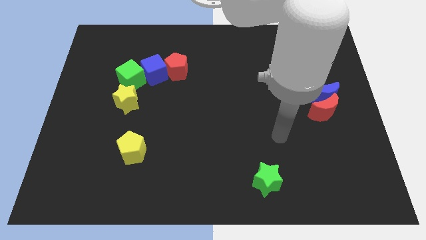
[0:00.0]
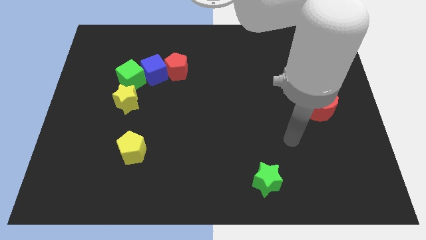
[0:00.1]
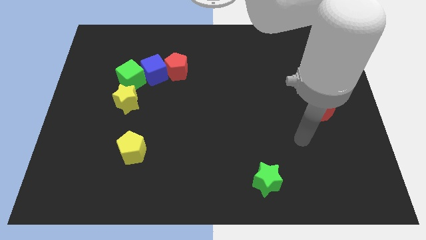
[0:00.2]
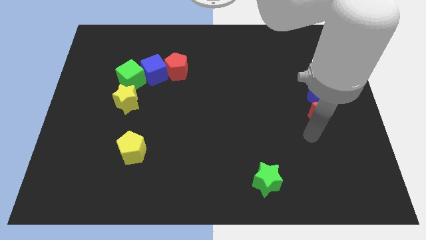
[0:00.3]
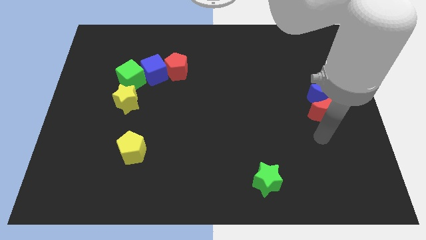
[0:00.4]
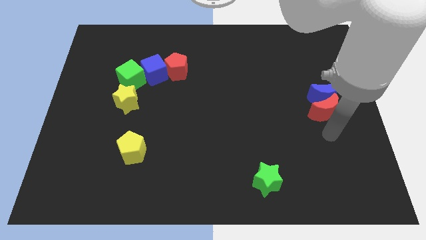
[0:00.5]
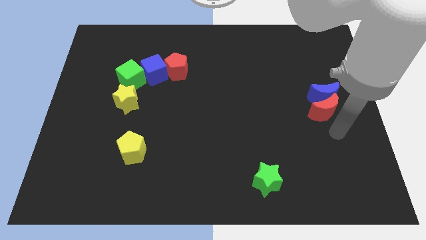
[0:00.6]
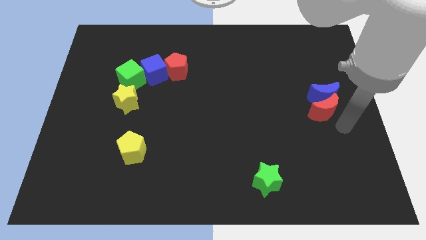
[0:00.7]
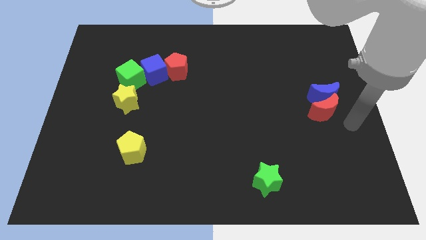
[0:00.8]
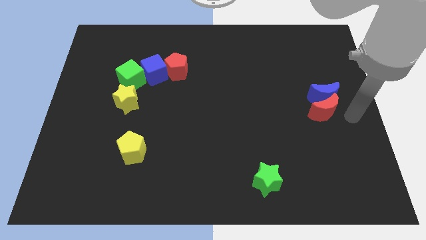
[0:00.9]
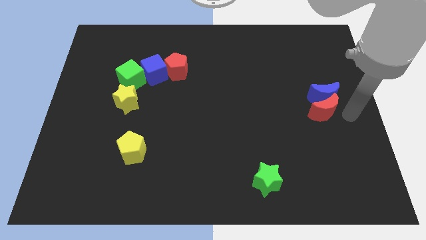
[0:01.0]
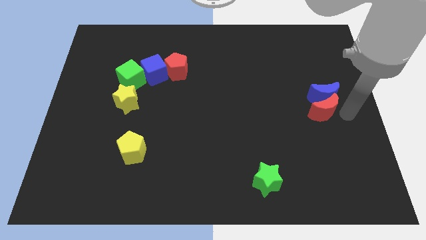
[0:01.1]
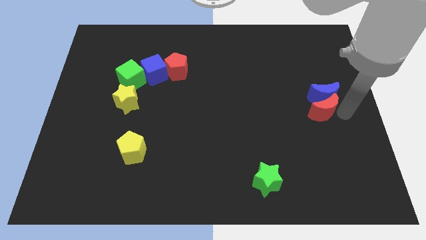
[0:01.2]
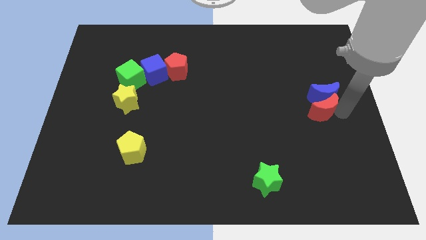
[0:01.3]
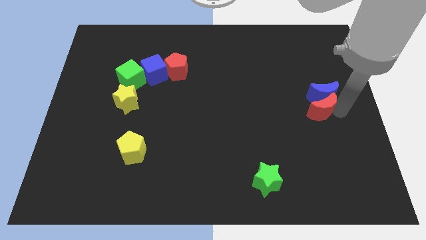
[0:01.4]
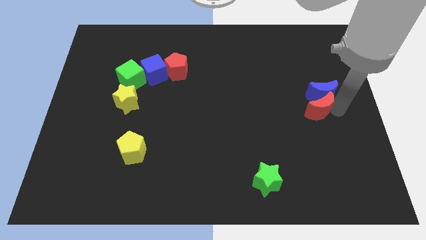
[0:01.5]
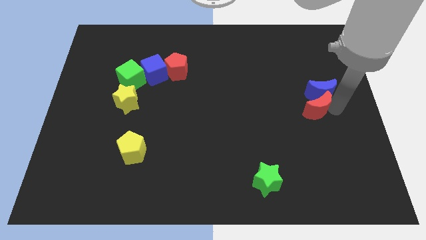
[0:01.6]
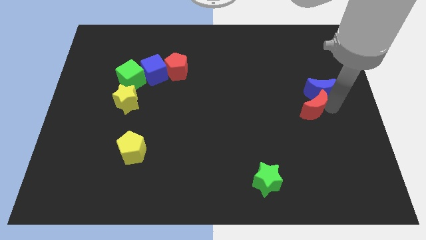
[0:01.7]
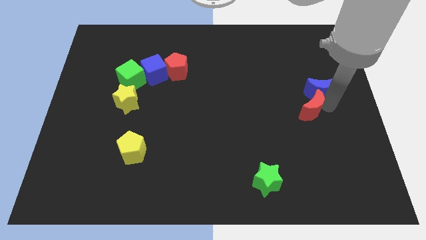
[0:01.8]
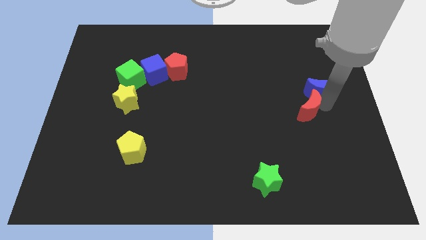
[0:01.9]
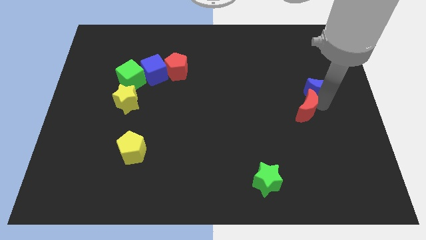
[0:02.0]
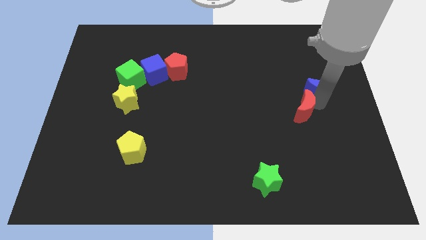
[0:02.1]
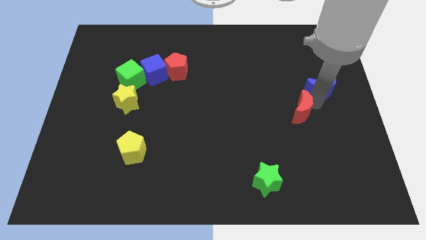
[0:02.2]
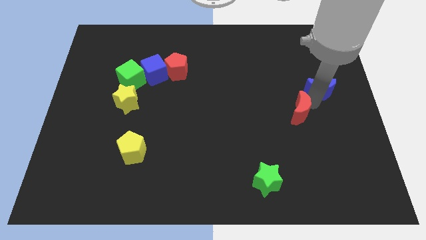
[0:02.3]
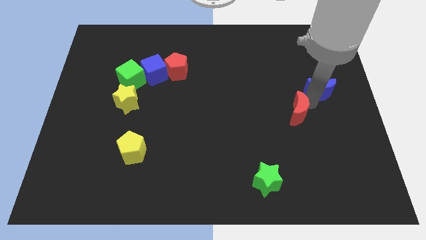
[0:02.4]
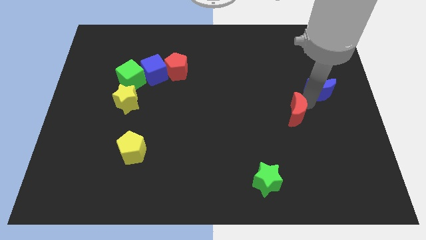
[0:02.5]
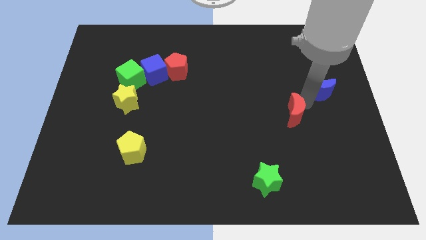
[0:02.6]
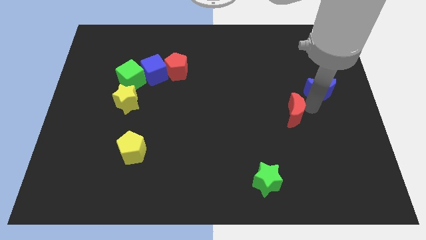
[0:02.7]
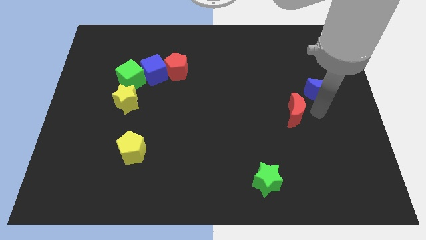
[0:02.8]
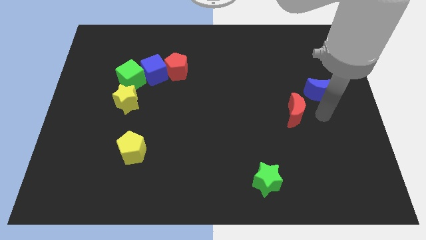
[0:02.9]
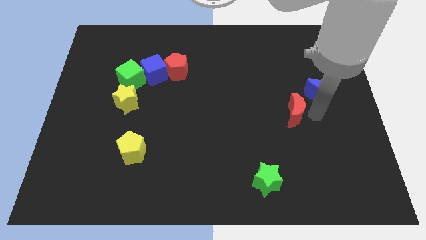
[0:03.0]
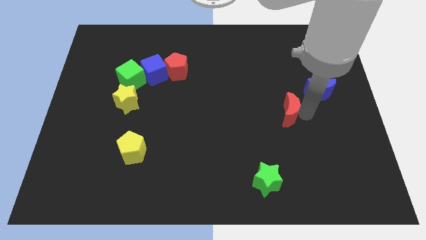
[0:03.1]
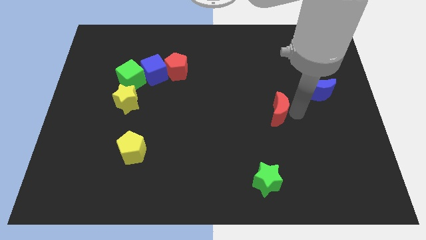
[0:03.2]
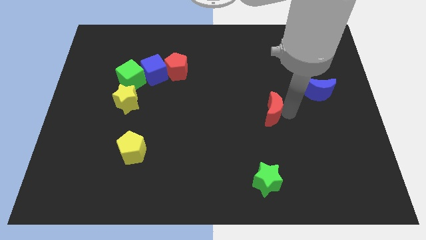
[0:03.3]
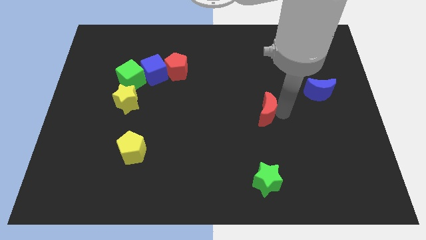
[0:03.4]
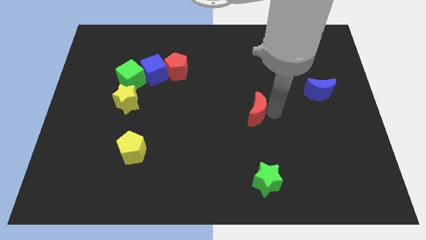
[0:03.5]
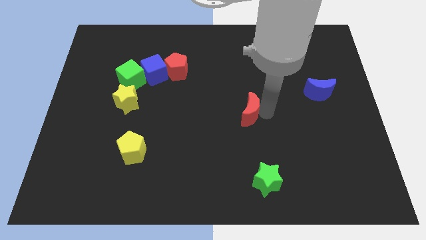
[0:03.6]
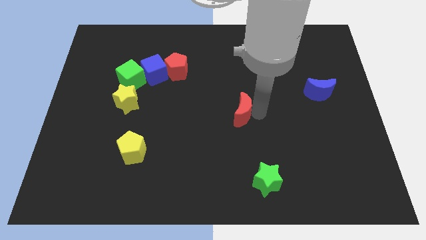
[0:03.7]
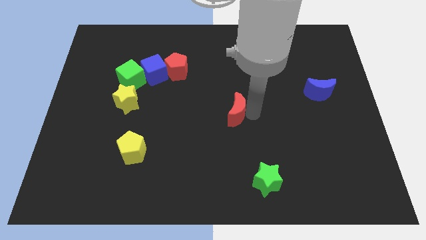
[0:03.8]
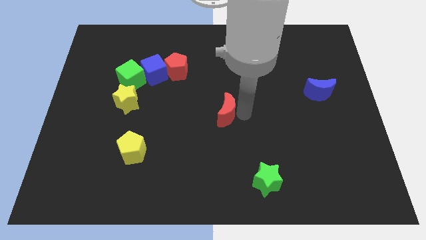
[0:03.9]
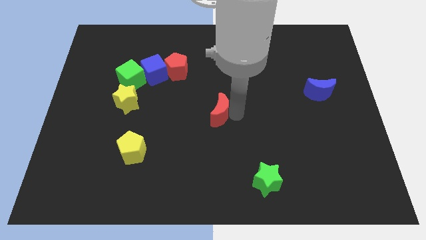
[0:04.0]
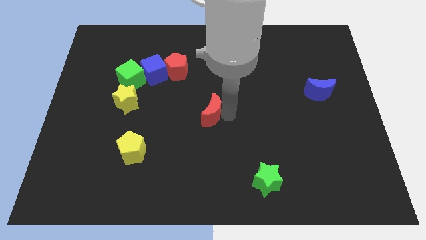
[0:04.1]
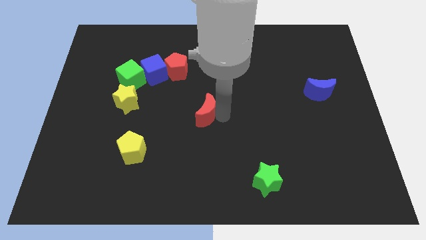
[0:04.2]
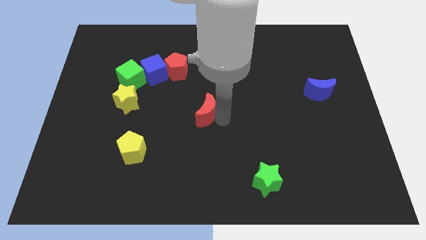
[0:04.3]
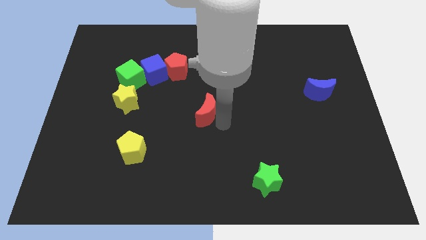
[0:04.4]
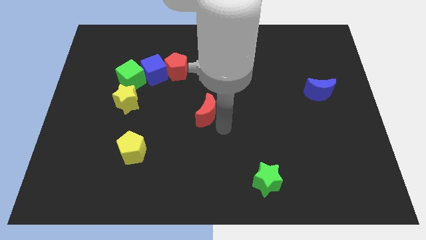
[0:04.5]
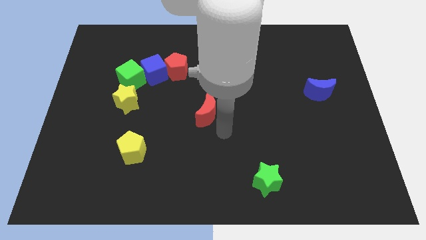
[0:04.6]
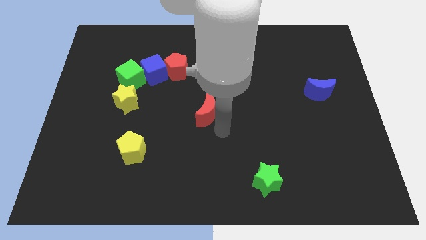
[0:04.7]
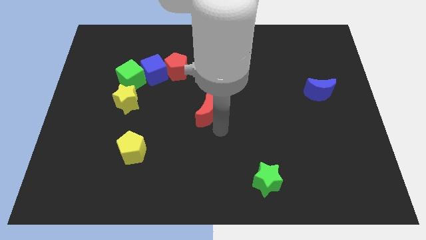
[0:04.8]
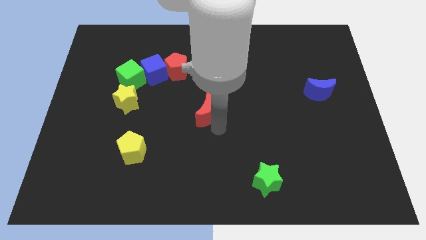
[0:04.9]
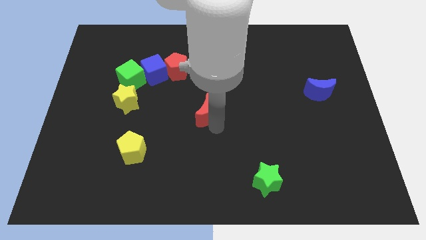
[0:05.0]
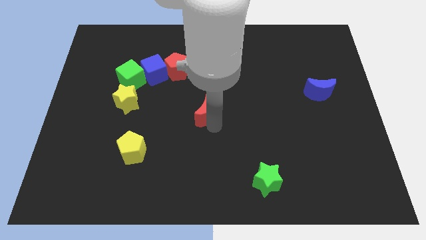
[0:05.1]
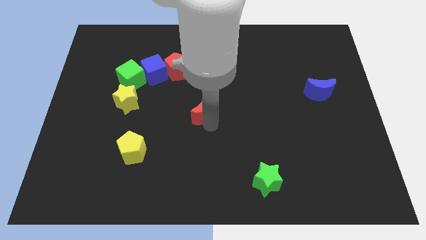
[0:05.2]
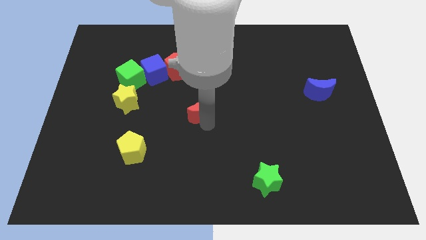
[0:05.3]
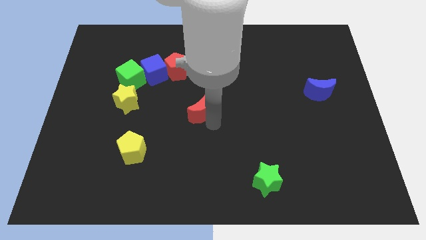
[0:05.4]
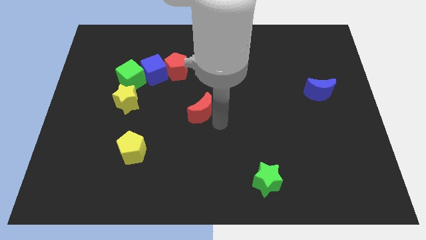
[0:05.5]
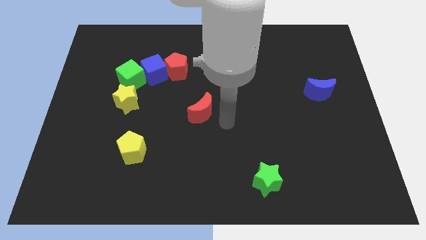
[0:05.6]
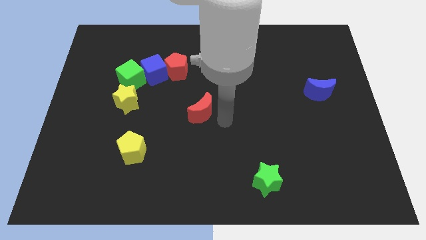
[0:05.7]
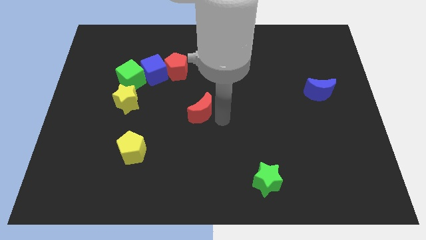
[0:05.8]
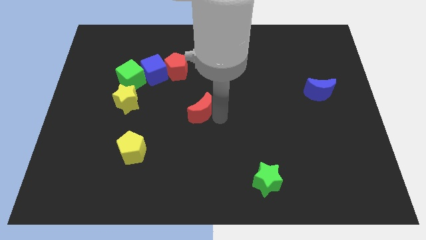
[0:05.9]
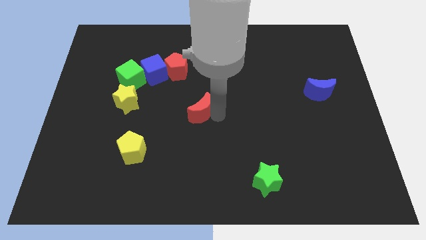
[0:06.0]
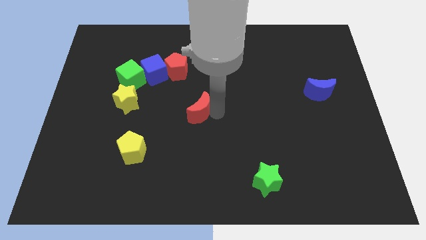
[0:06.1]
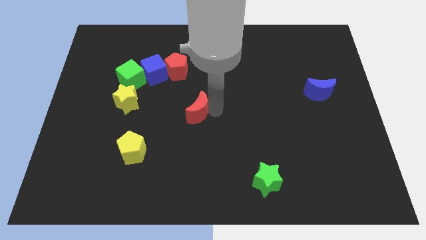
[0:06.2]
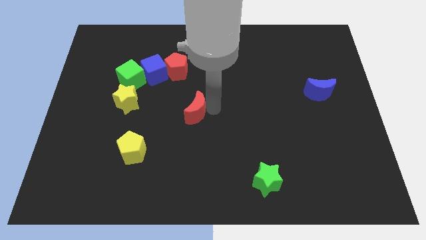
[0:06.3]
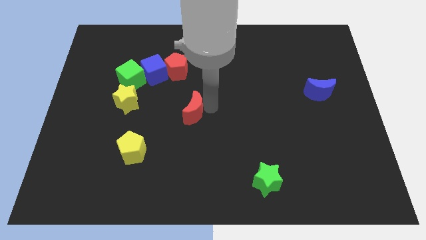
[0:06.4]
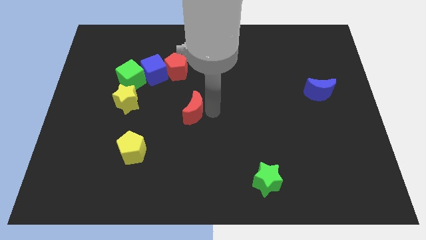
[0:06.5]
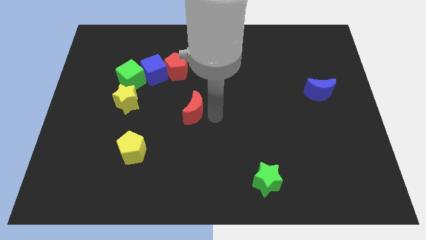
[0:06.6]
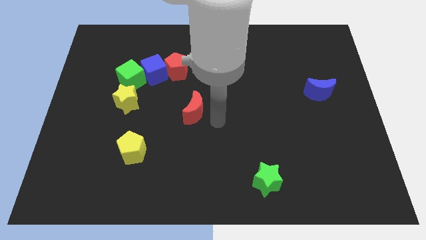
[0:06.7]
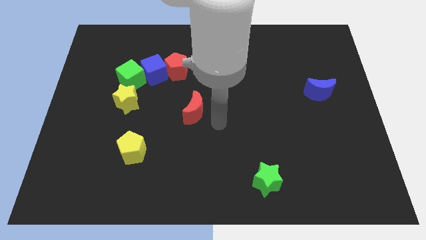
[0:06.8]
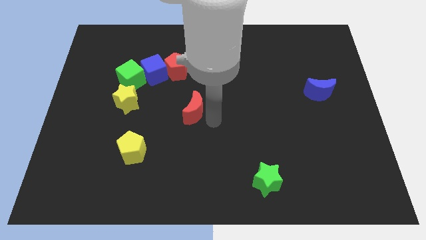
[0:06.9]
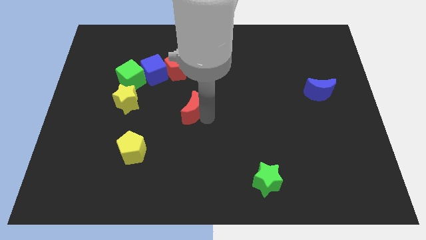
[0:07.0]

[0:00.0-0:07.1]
push the red moon to the bottom of the red pentagon
